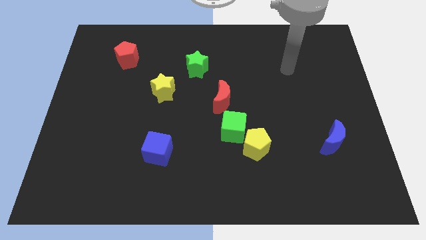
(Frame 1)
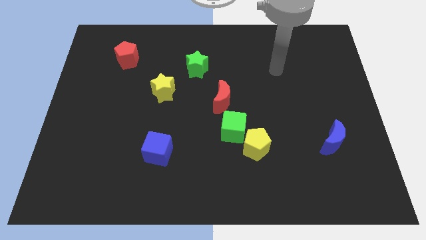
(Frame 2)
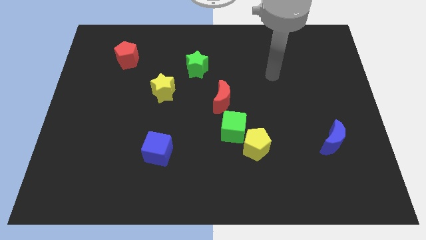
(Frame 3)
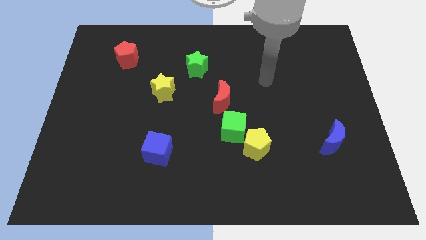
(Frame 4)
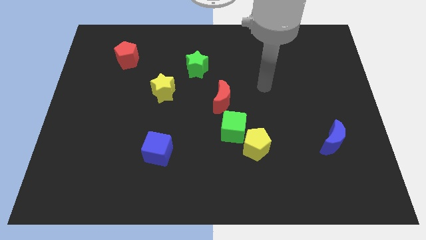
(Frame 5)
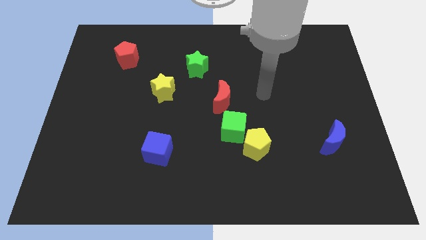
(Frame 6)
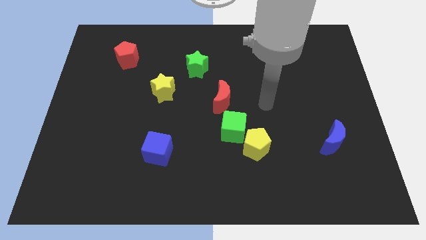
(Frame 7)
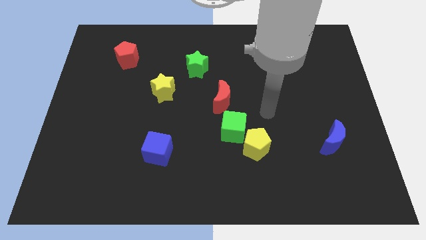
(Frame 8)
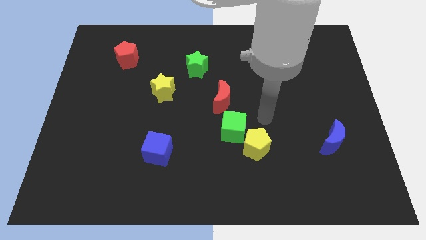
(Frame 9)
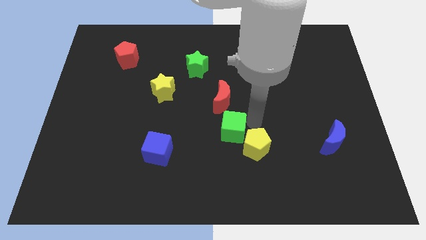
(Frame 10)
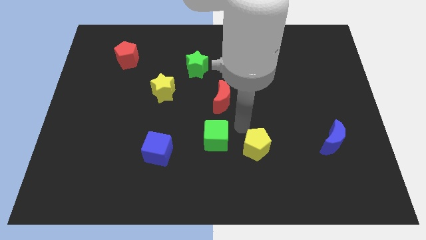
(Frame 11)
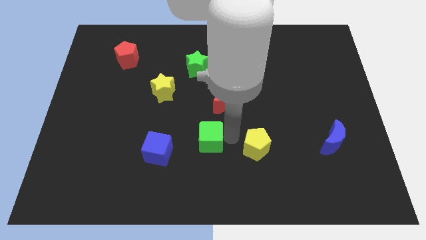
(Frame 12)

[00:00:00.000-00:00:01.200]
move the yellow pentagon away from the green cube

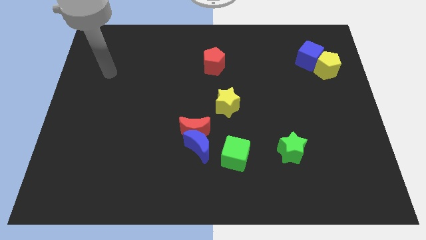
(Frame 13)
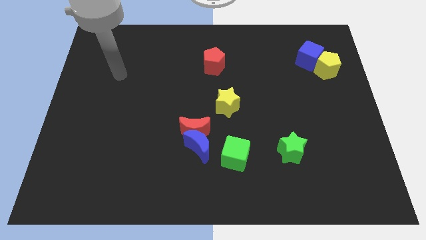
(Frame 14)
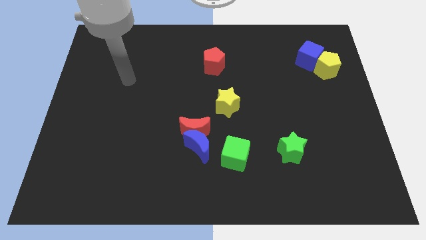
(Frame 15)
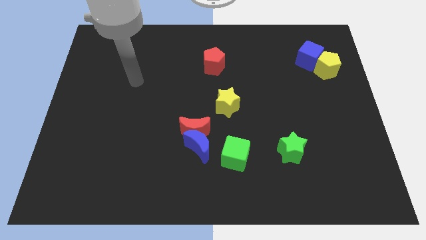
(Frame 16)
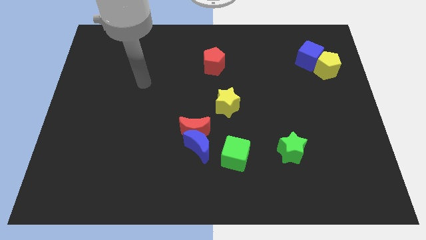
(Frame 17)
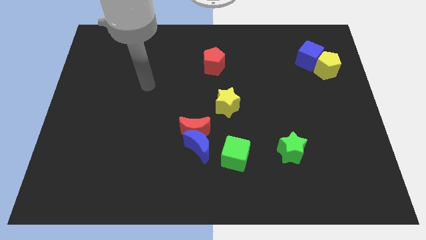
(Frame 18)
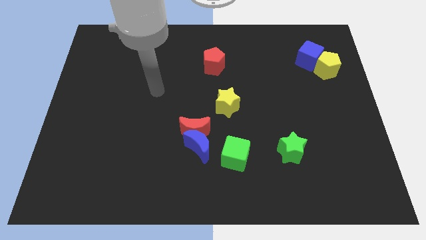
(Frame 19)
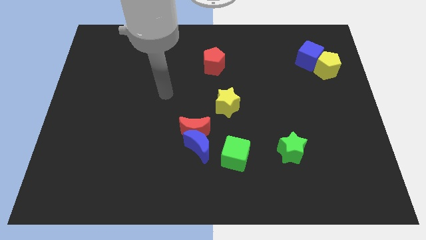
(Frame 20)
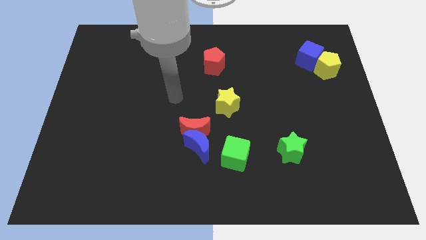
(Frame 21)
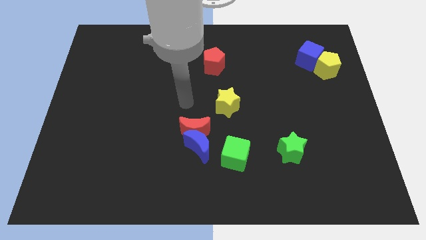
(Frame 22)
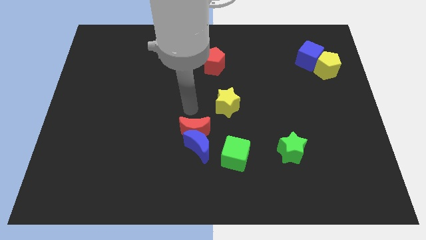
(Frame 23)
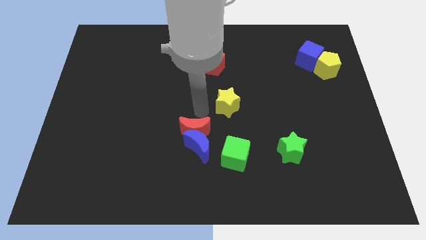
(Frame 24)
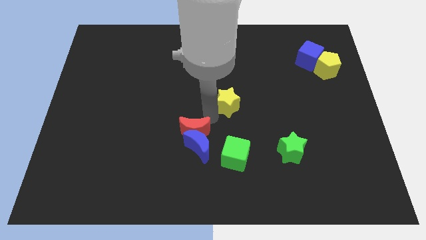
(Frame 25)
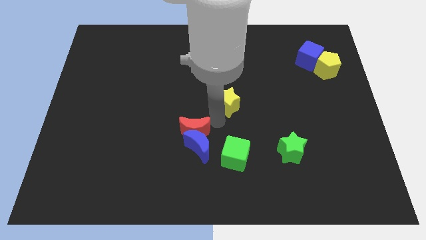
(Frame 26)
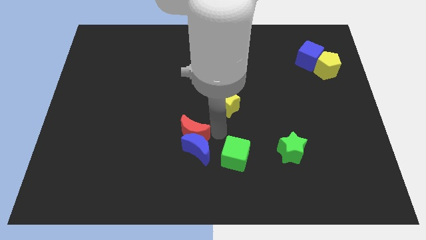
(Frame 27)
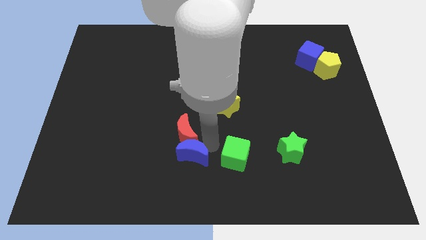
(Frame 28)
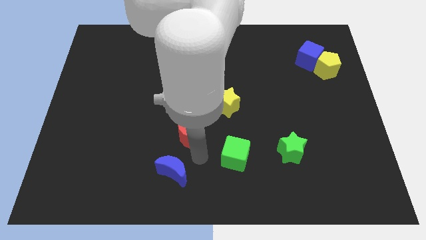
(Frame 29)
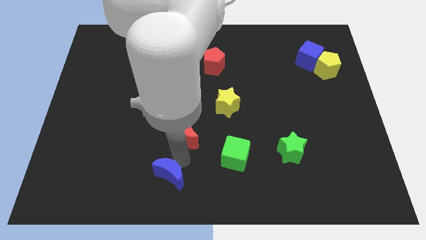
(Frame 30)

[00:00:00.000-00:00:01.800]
pull the red moon apart from the blue moon

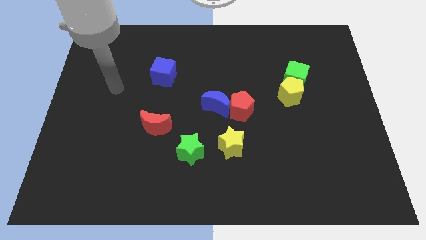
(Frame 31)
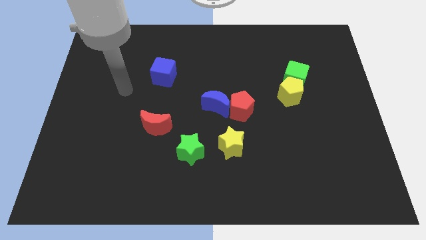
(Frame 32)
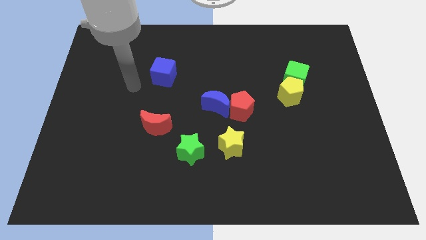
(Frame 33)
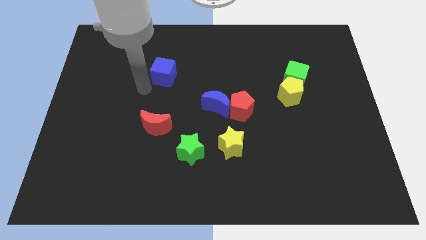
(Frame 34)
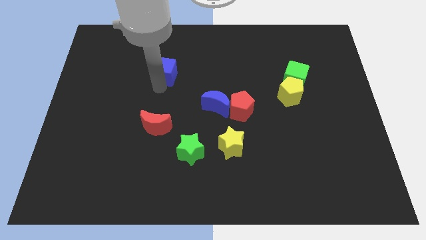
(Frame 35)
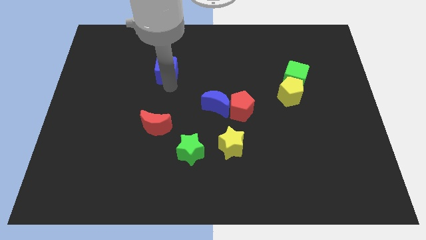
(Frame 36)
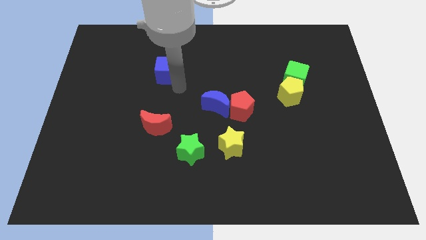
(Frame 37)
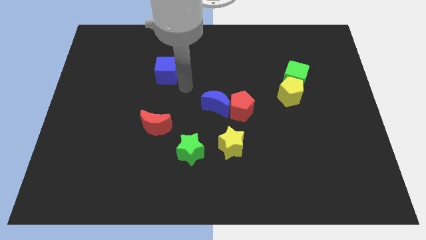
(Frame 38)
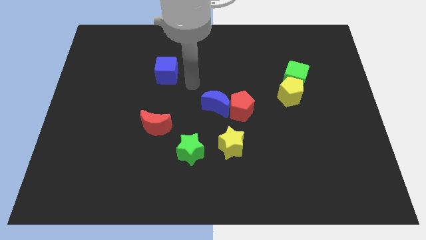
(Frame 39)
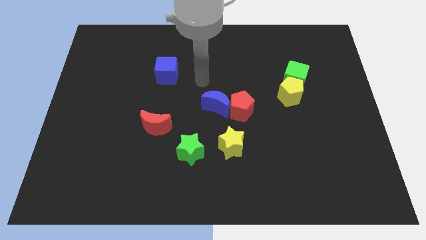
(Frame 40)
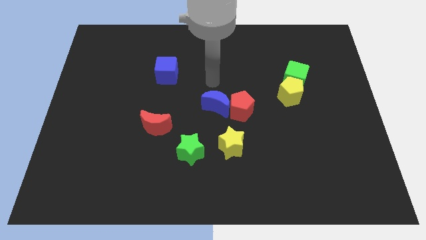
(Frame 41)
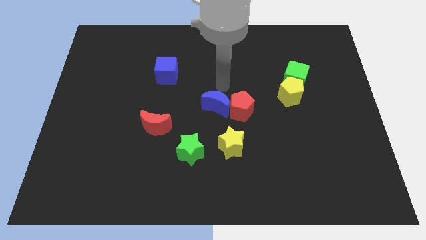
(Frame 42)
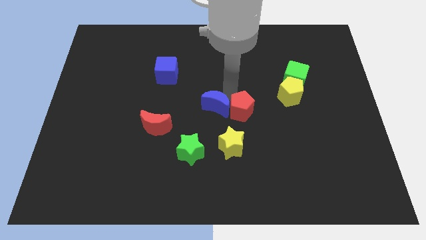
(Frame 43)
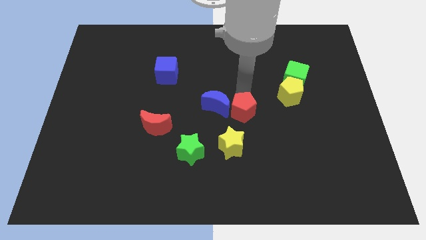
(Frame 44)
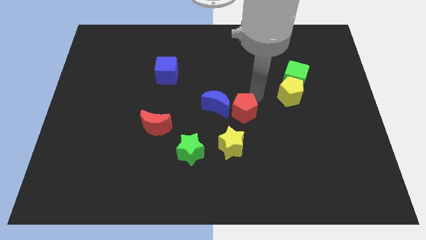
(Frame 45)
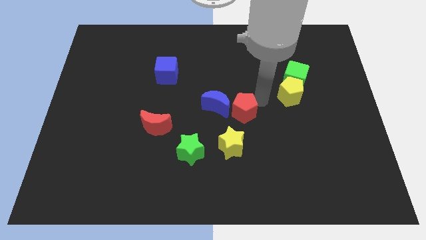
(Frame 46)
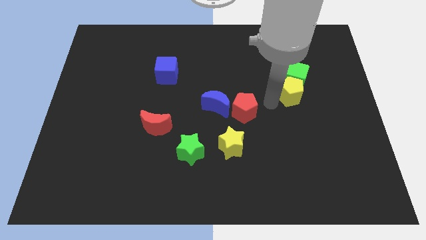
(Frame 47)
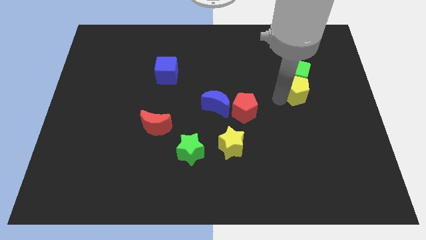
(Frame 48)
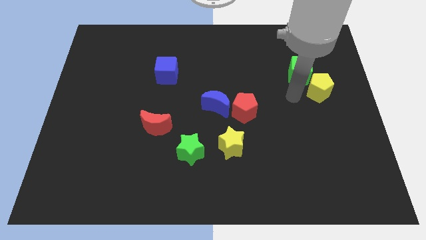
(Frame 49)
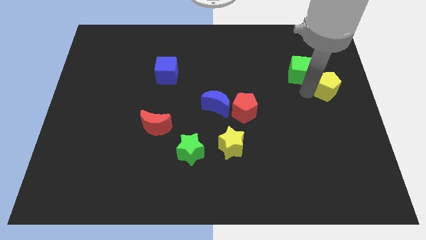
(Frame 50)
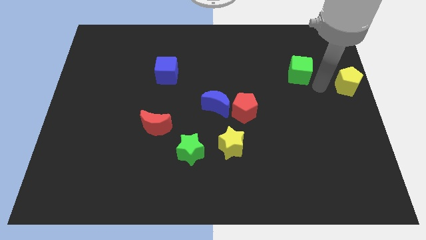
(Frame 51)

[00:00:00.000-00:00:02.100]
separate the green cube from the yellow pentagon

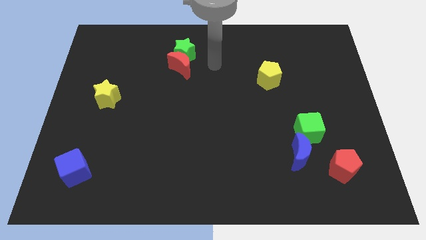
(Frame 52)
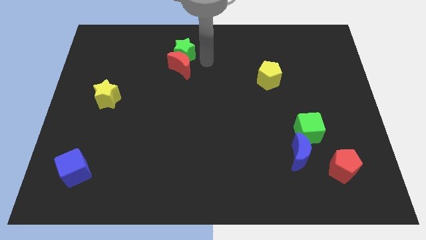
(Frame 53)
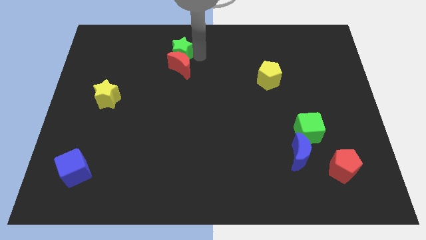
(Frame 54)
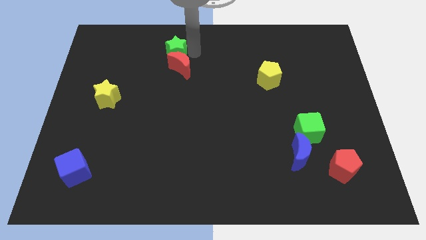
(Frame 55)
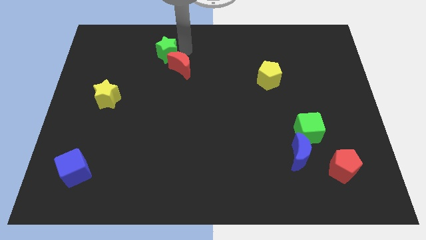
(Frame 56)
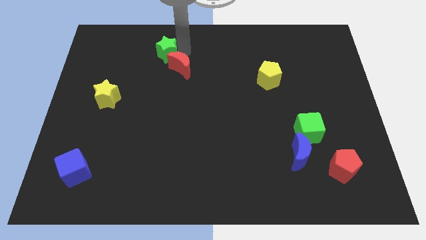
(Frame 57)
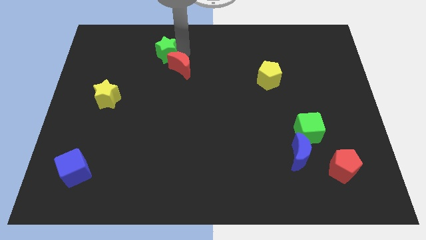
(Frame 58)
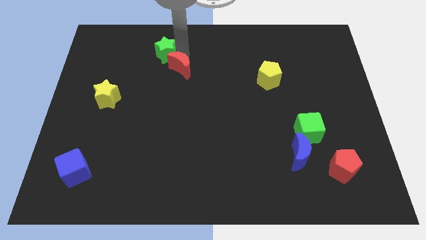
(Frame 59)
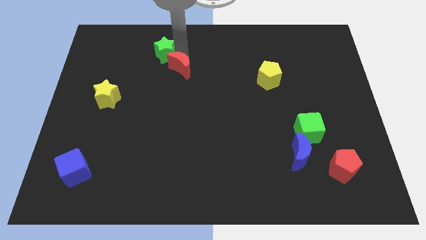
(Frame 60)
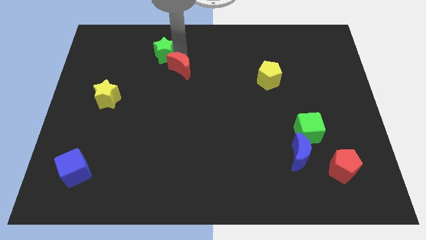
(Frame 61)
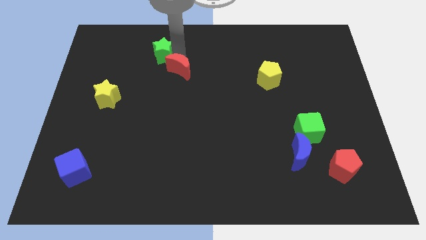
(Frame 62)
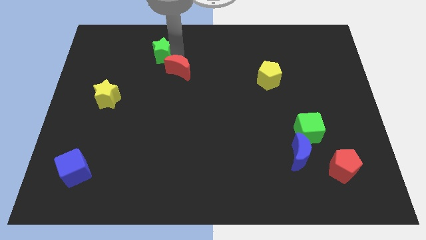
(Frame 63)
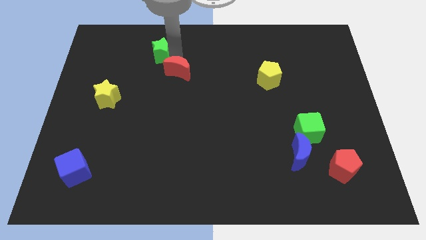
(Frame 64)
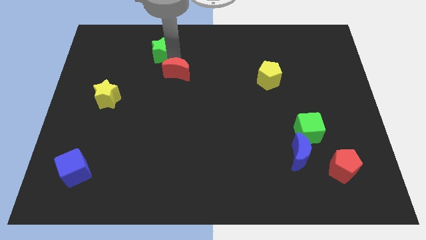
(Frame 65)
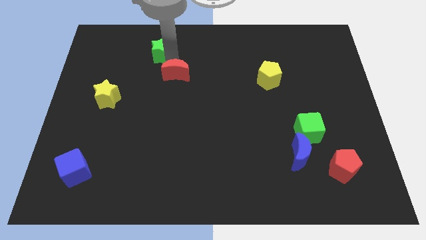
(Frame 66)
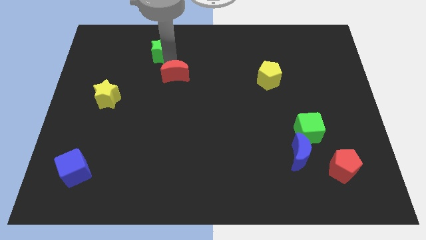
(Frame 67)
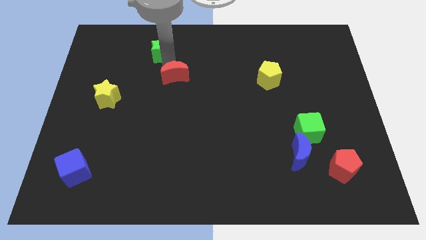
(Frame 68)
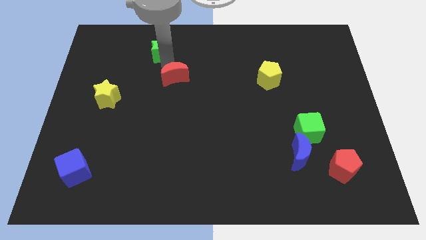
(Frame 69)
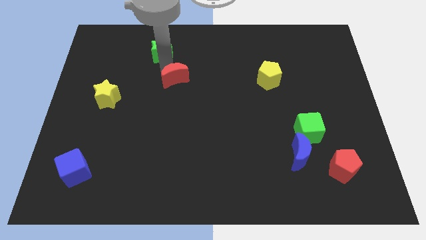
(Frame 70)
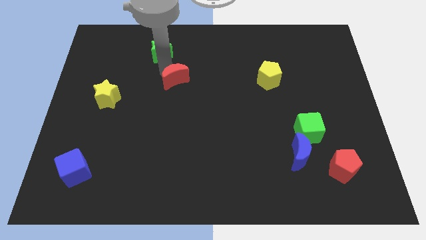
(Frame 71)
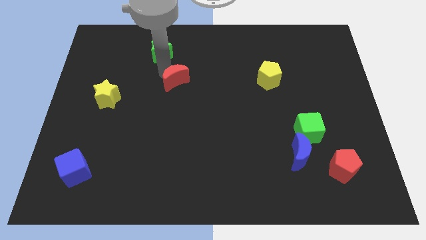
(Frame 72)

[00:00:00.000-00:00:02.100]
move the red moon away from the green star

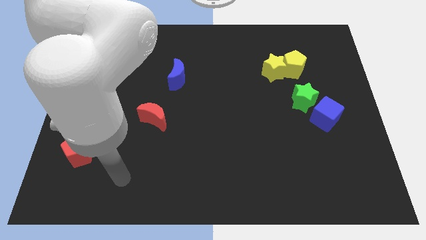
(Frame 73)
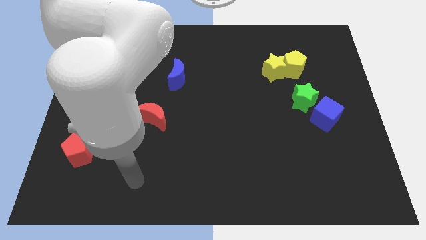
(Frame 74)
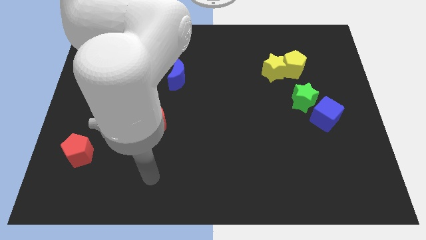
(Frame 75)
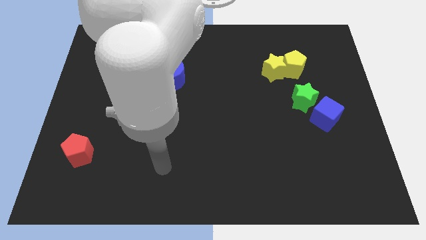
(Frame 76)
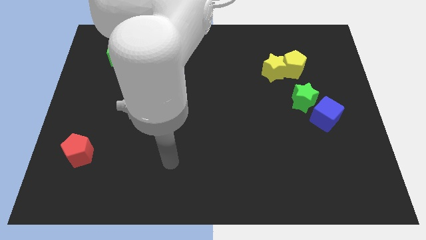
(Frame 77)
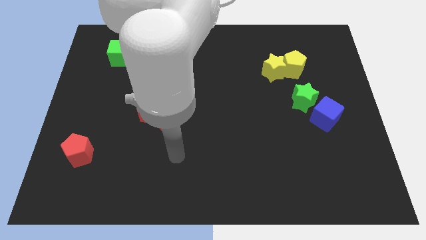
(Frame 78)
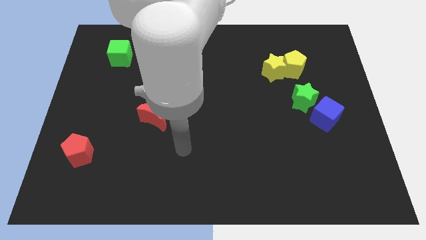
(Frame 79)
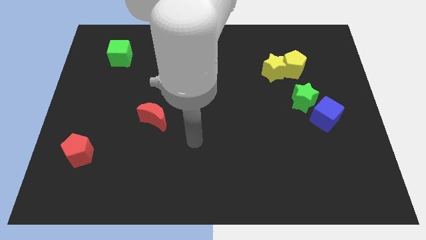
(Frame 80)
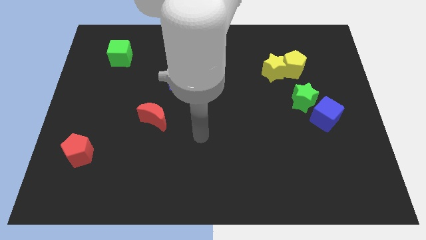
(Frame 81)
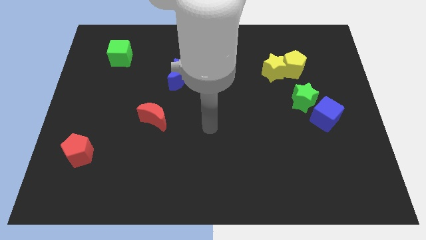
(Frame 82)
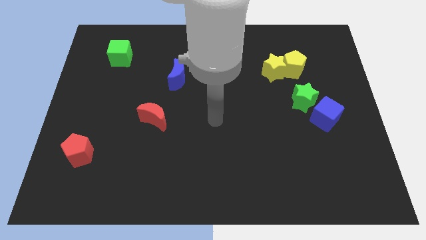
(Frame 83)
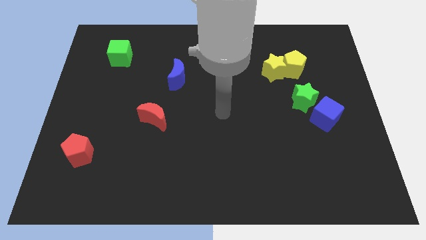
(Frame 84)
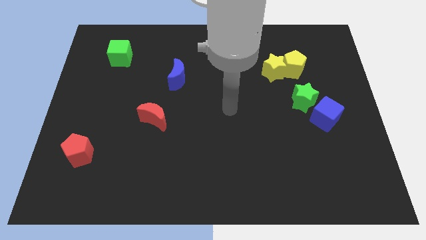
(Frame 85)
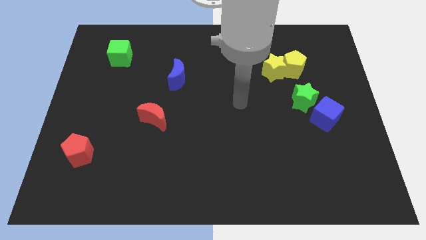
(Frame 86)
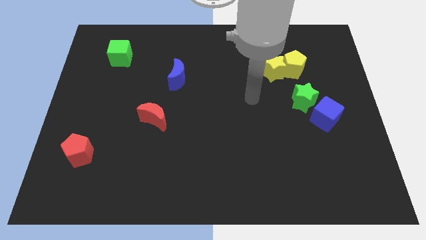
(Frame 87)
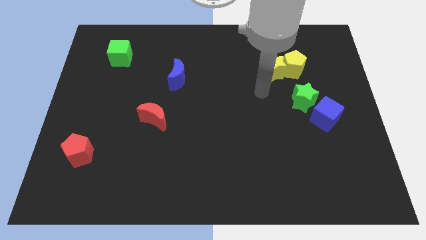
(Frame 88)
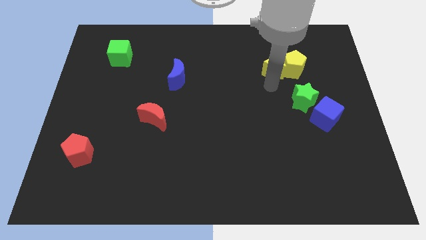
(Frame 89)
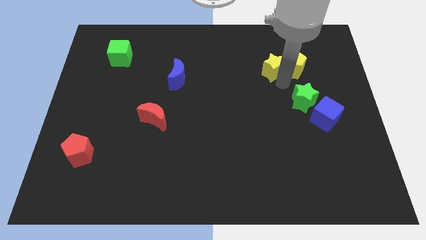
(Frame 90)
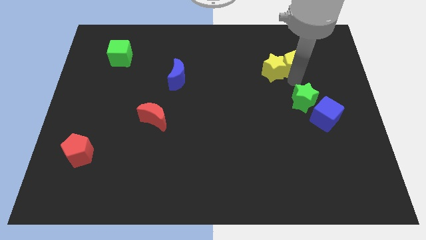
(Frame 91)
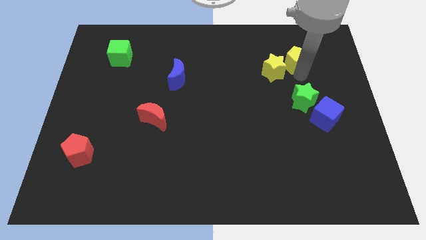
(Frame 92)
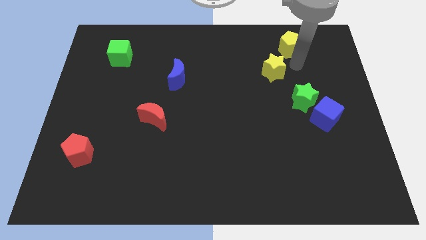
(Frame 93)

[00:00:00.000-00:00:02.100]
pull the yellow star apart from the yellow pentagon
